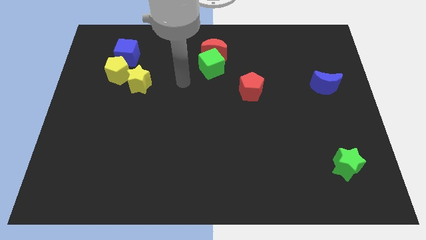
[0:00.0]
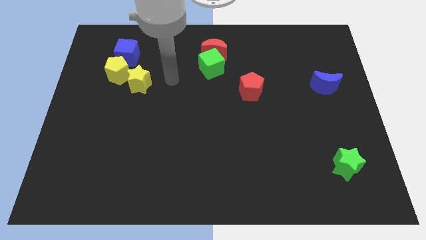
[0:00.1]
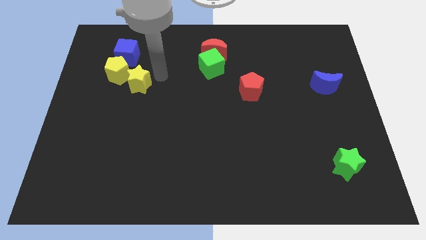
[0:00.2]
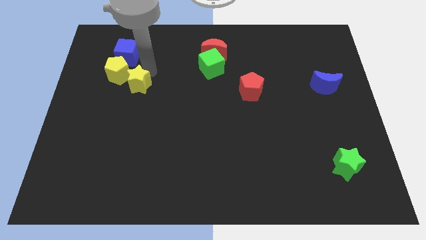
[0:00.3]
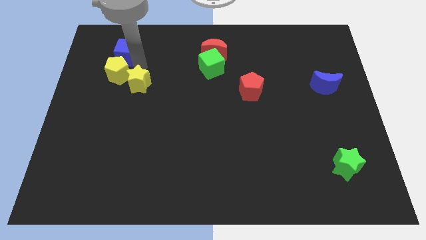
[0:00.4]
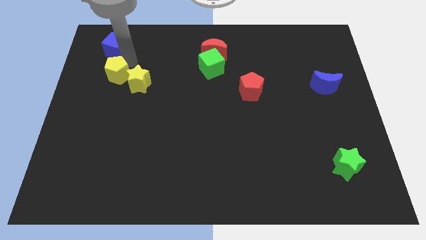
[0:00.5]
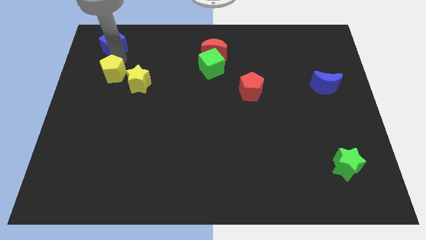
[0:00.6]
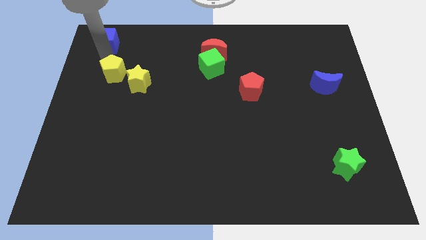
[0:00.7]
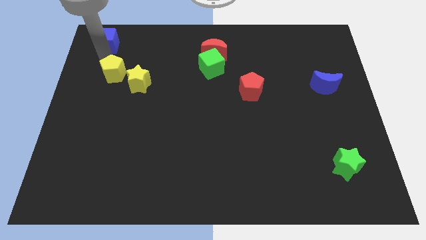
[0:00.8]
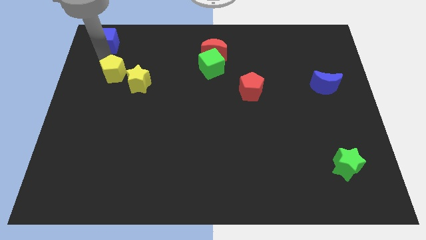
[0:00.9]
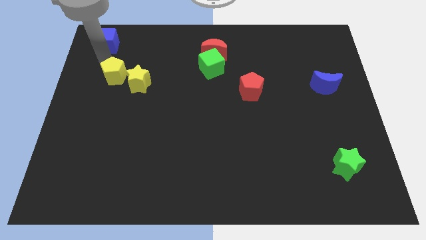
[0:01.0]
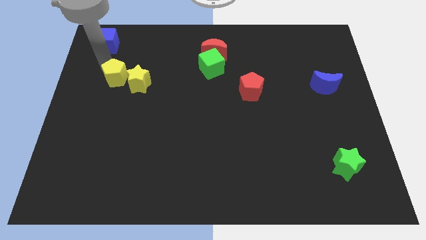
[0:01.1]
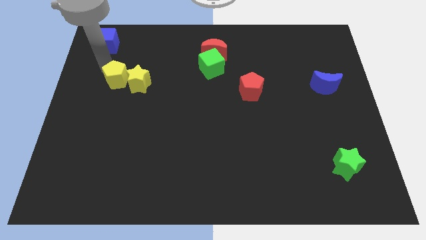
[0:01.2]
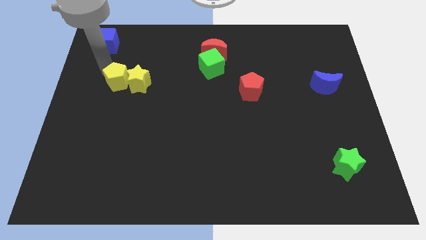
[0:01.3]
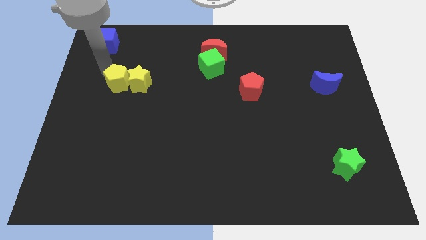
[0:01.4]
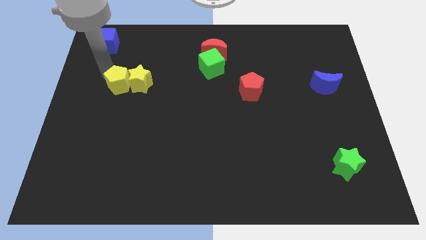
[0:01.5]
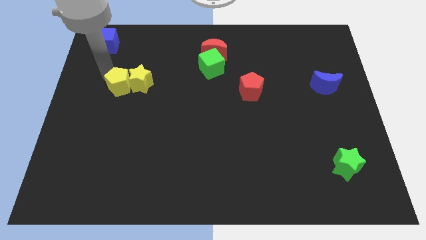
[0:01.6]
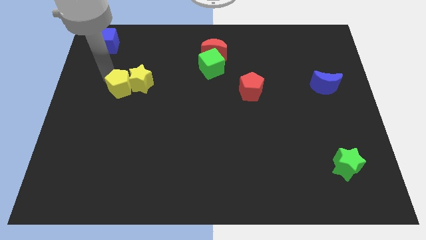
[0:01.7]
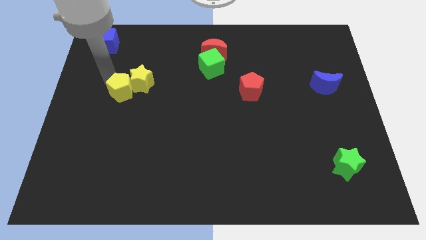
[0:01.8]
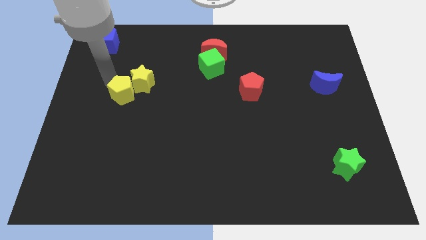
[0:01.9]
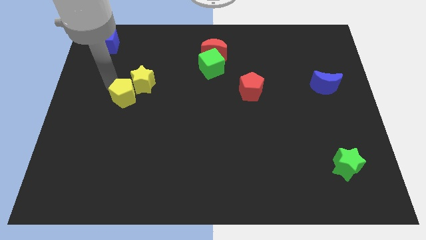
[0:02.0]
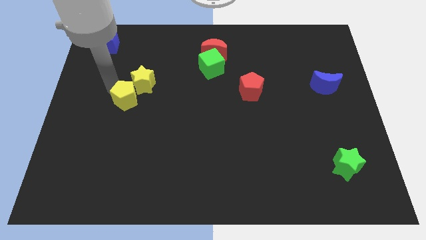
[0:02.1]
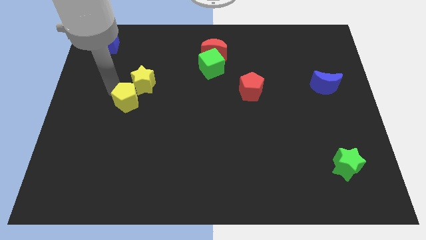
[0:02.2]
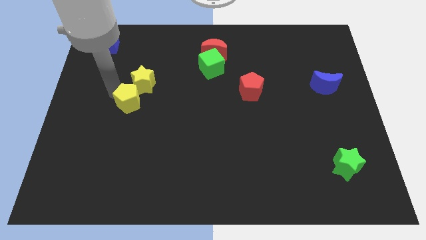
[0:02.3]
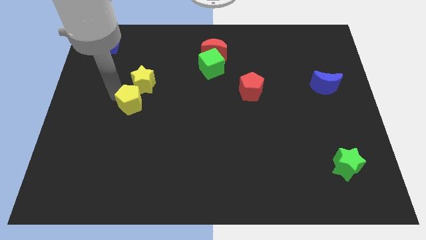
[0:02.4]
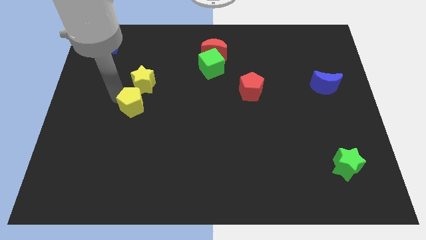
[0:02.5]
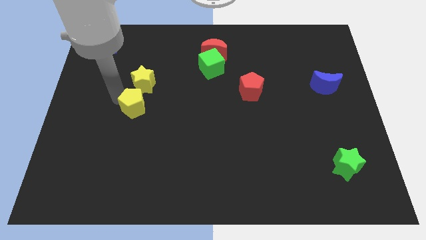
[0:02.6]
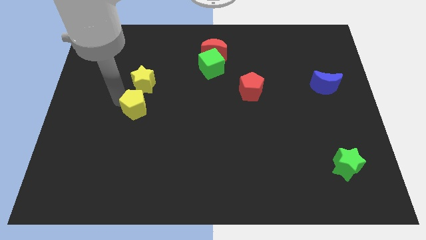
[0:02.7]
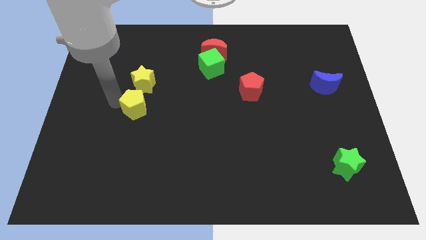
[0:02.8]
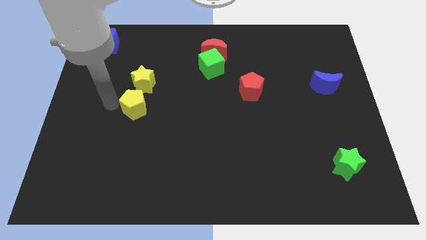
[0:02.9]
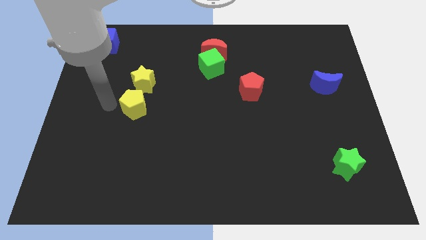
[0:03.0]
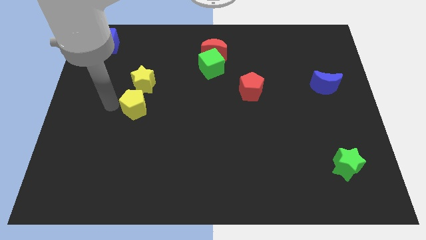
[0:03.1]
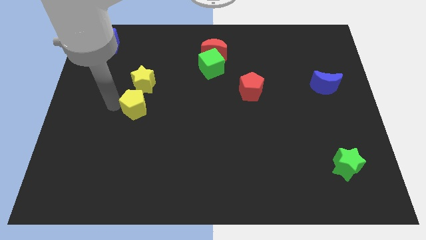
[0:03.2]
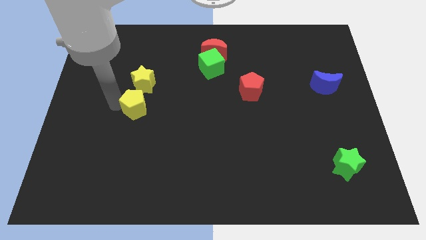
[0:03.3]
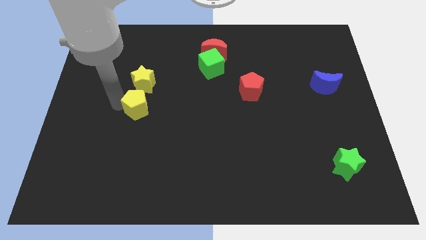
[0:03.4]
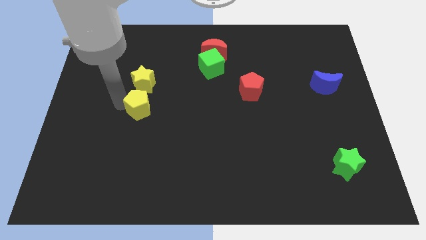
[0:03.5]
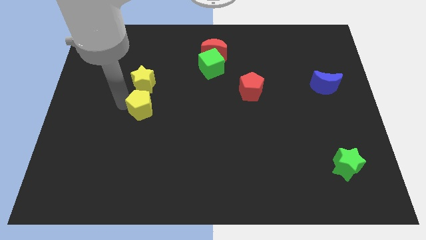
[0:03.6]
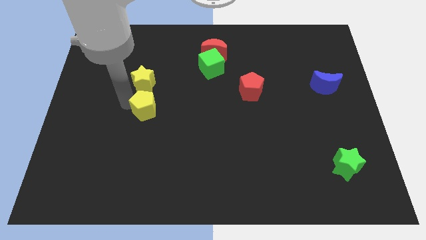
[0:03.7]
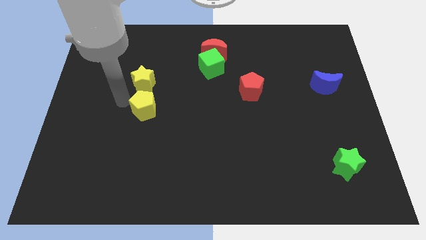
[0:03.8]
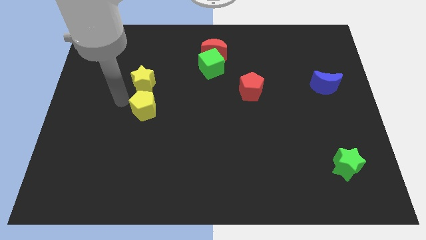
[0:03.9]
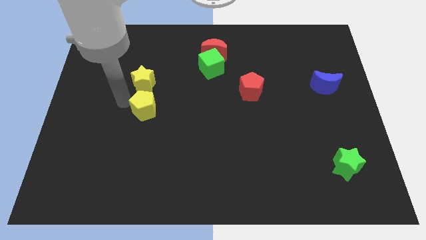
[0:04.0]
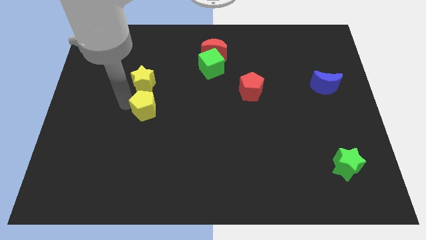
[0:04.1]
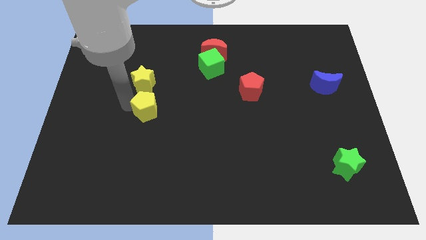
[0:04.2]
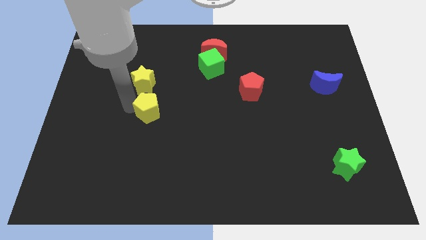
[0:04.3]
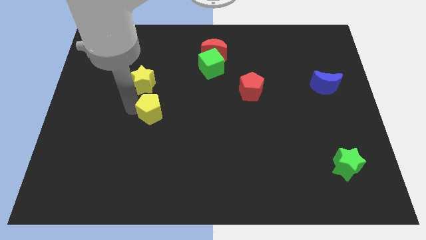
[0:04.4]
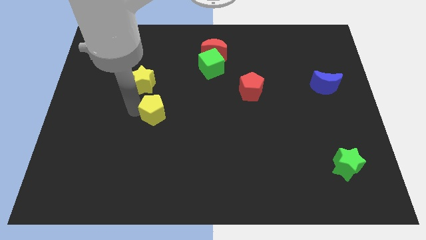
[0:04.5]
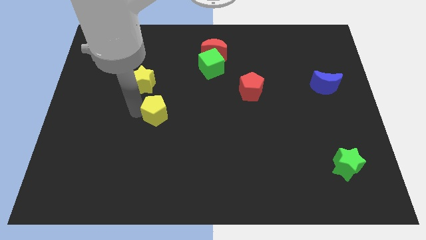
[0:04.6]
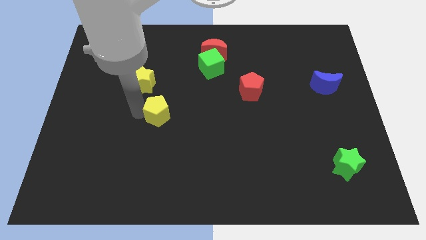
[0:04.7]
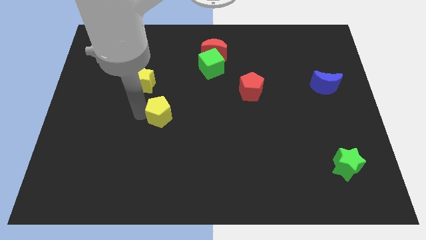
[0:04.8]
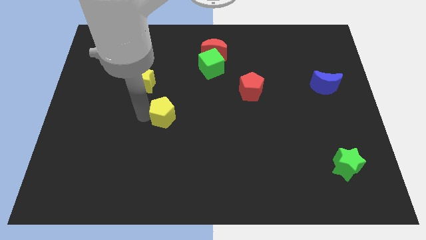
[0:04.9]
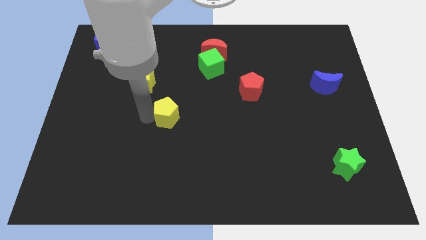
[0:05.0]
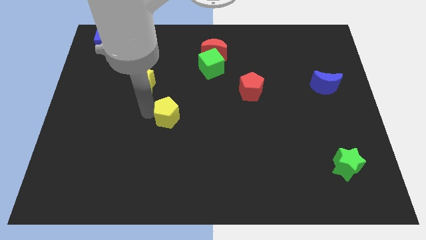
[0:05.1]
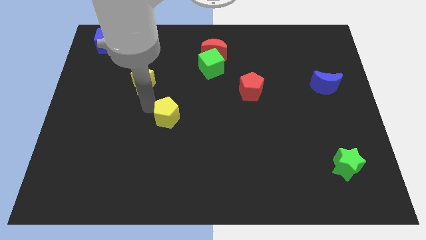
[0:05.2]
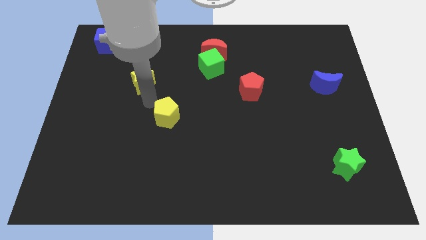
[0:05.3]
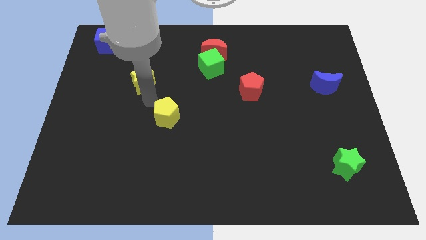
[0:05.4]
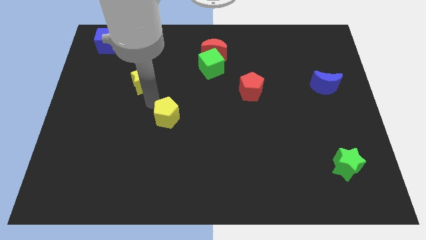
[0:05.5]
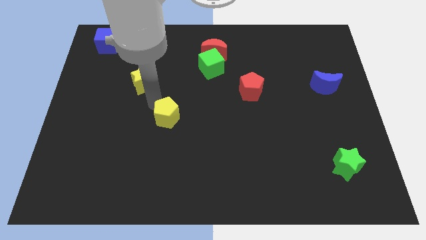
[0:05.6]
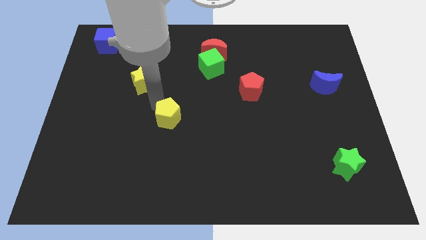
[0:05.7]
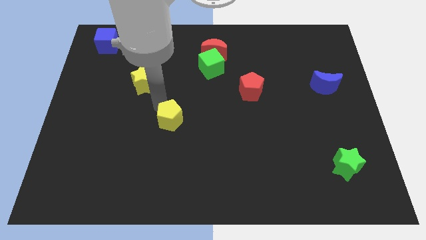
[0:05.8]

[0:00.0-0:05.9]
move the yellow pentagon down and right diagonally

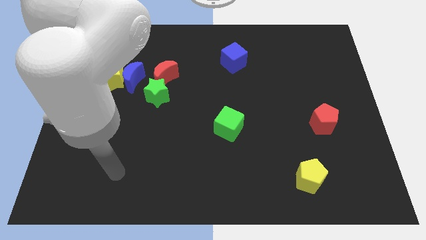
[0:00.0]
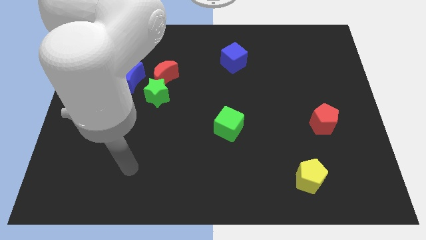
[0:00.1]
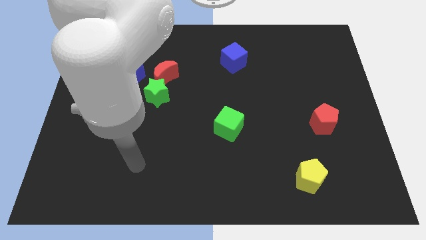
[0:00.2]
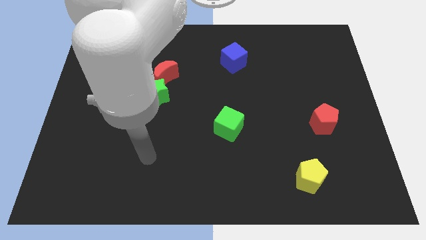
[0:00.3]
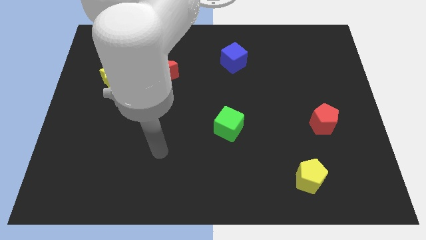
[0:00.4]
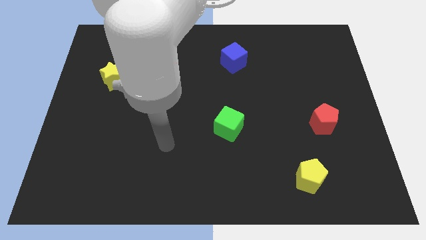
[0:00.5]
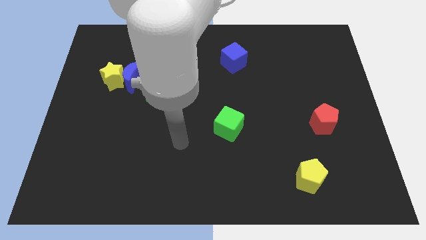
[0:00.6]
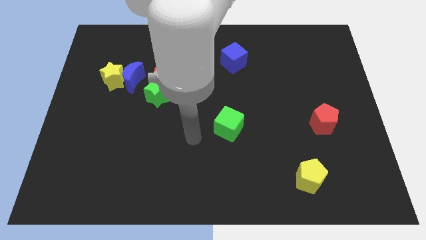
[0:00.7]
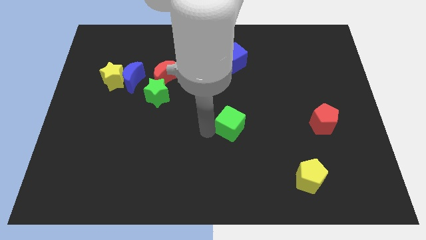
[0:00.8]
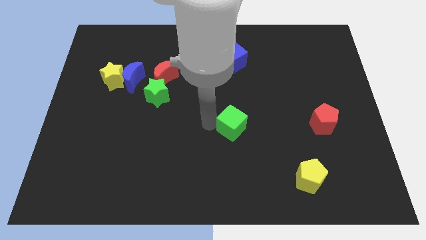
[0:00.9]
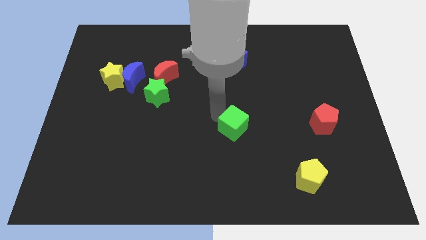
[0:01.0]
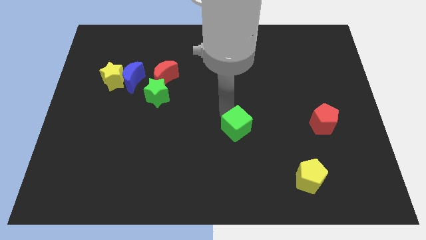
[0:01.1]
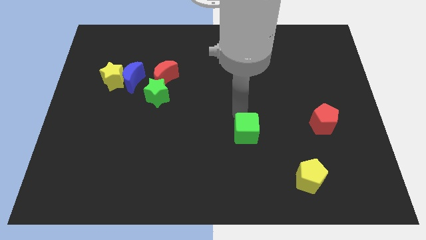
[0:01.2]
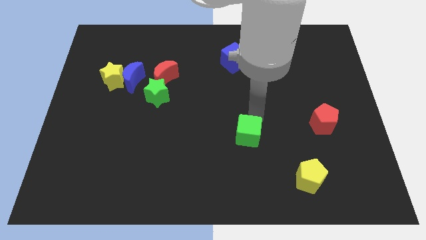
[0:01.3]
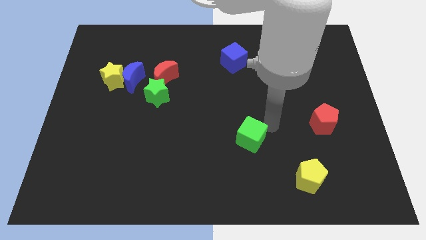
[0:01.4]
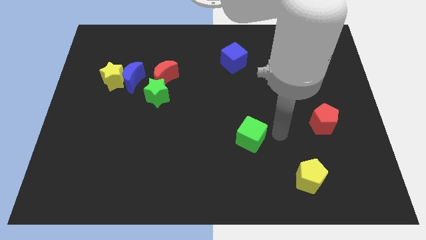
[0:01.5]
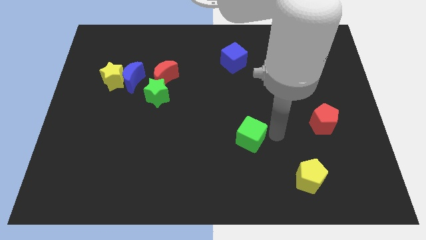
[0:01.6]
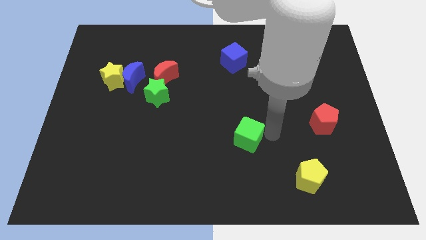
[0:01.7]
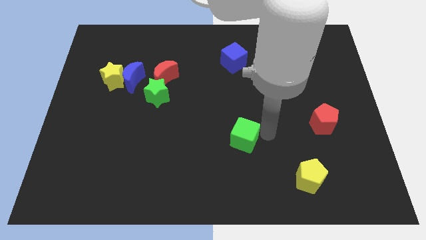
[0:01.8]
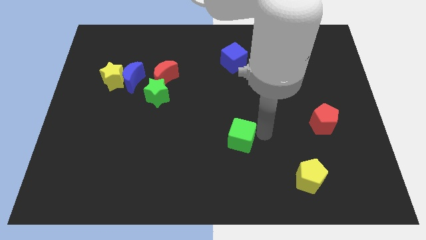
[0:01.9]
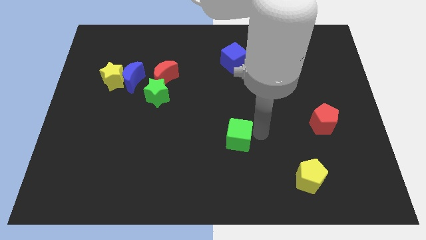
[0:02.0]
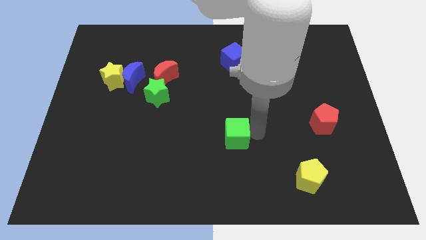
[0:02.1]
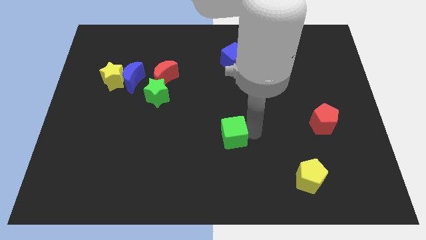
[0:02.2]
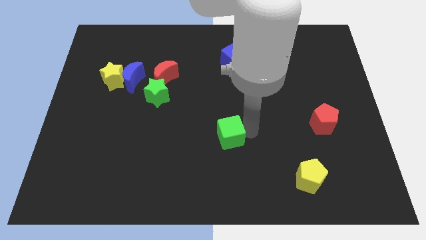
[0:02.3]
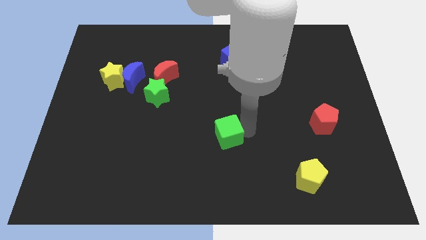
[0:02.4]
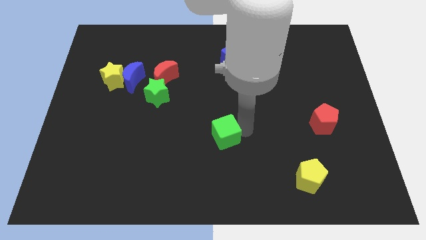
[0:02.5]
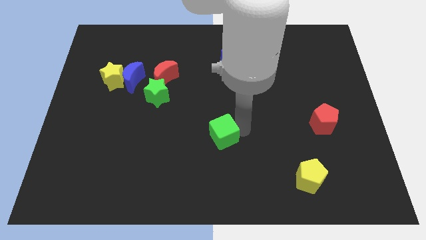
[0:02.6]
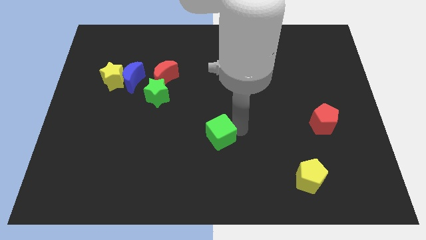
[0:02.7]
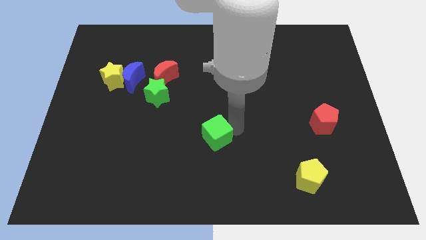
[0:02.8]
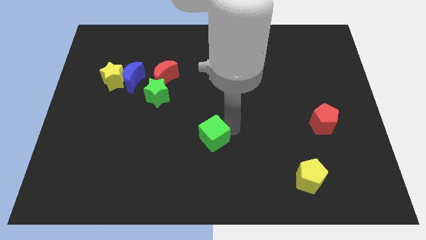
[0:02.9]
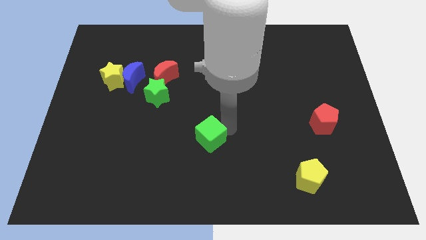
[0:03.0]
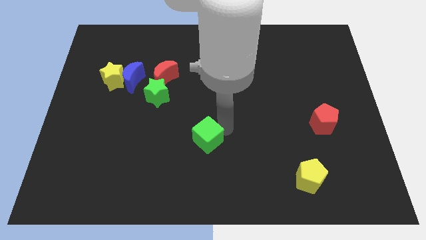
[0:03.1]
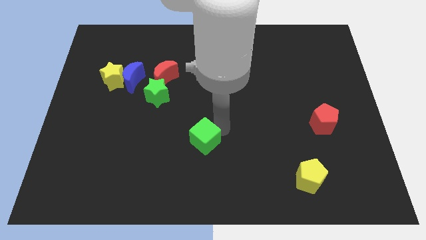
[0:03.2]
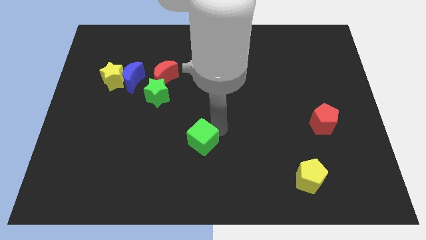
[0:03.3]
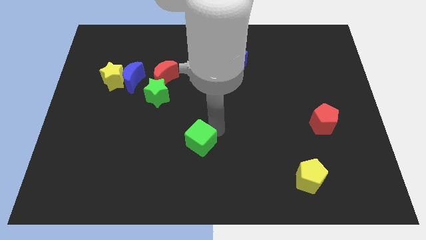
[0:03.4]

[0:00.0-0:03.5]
move the green cube a little bit downwards and left diagonally
